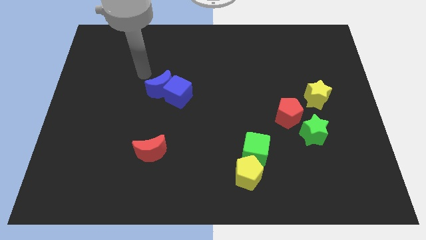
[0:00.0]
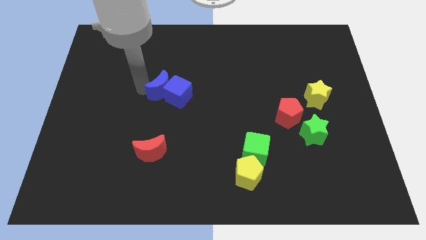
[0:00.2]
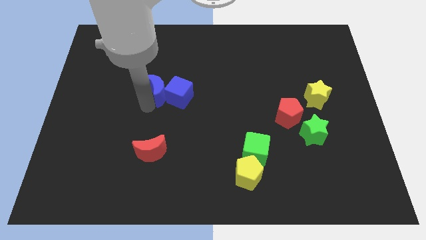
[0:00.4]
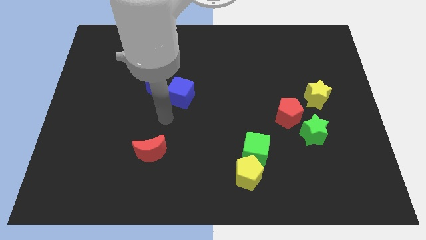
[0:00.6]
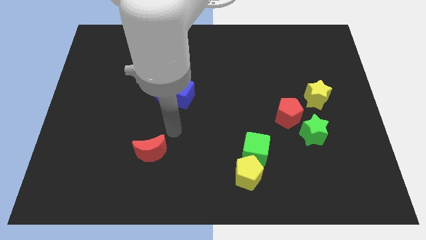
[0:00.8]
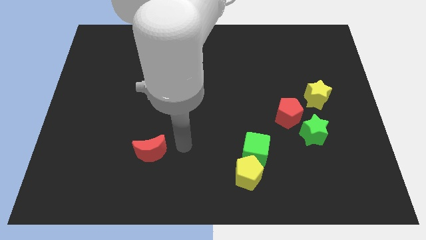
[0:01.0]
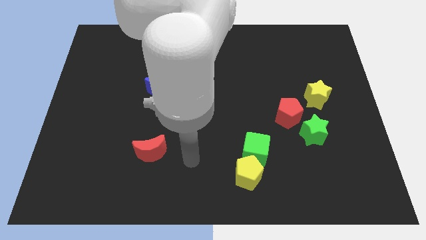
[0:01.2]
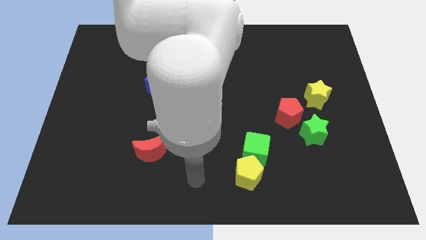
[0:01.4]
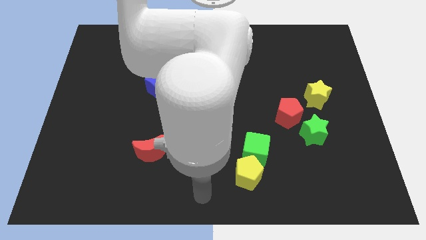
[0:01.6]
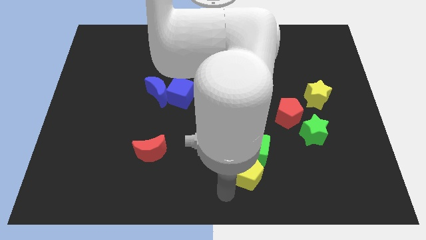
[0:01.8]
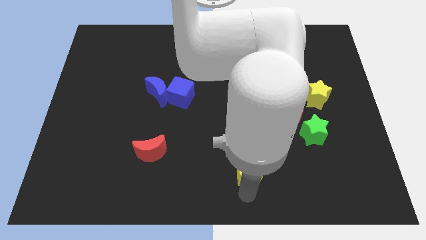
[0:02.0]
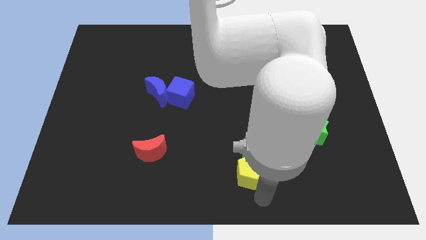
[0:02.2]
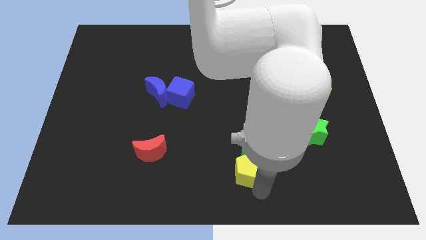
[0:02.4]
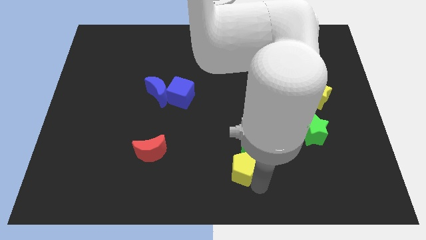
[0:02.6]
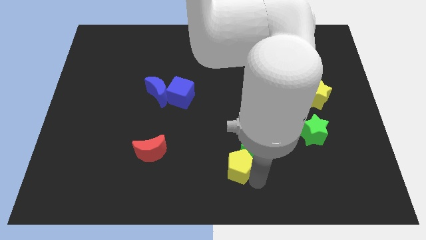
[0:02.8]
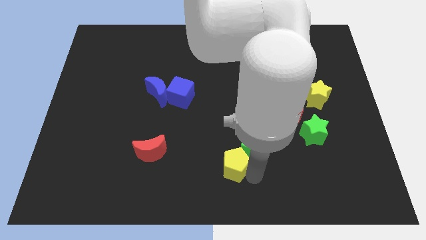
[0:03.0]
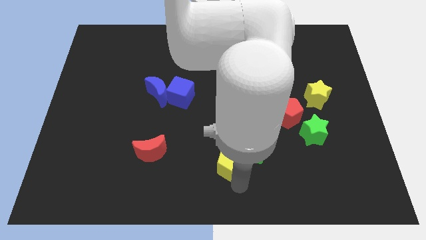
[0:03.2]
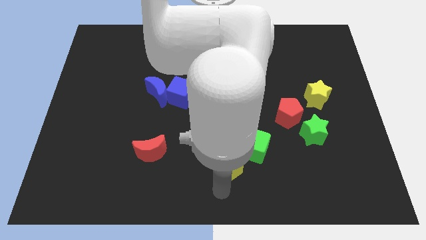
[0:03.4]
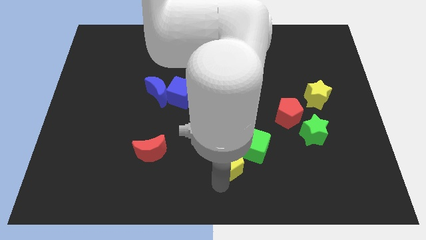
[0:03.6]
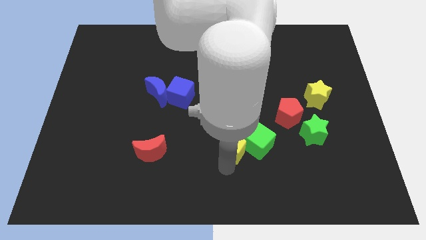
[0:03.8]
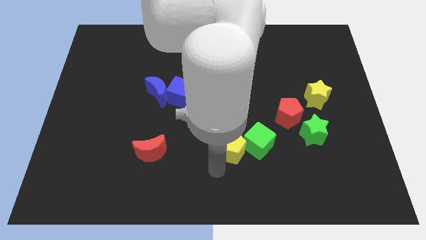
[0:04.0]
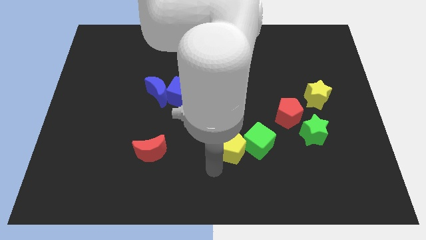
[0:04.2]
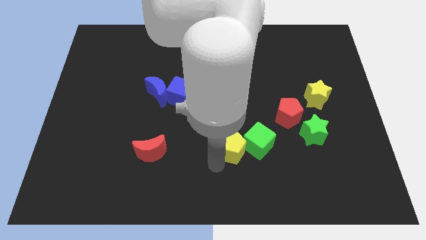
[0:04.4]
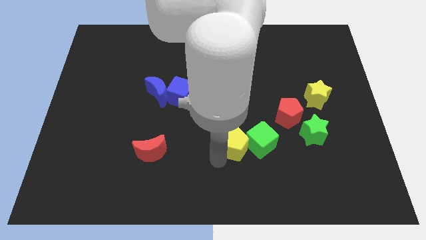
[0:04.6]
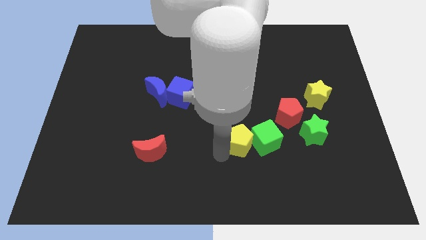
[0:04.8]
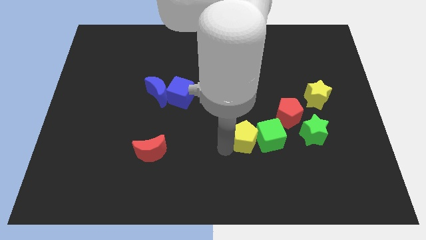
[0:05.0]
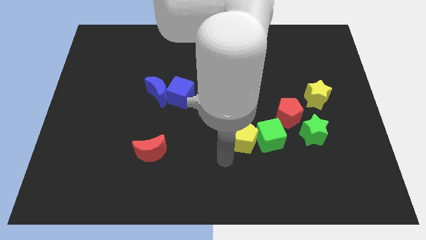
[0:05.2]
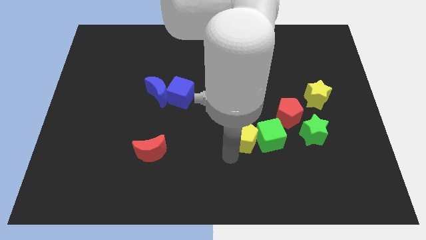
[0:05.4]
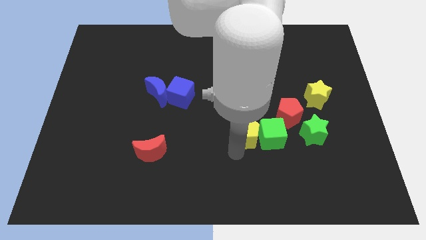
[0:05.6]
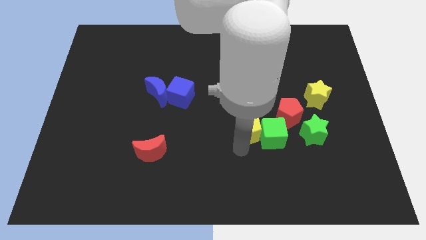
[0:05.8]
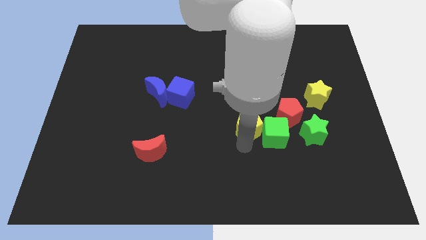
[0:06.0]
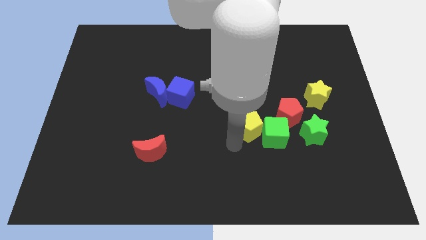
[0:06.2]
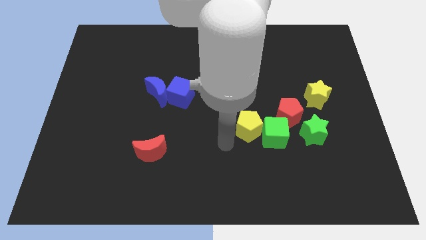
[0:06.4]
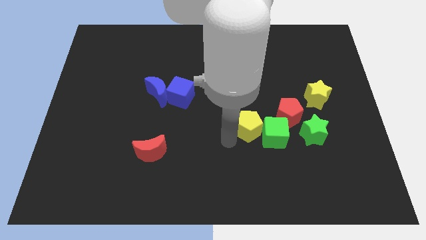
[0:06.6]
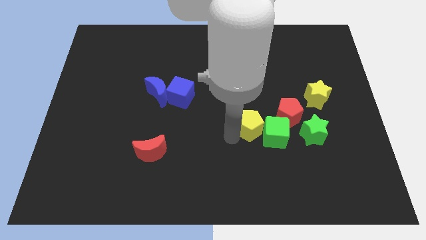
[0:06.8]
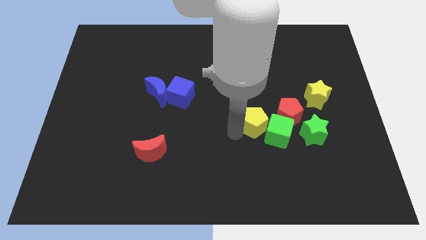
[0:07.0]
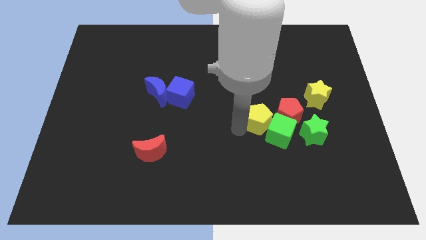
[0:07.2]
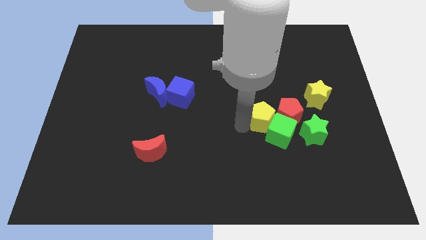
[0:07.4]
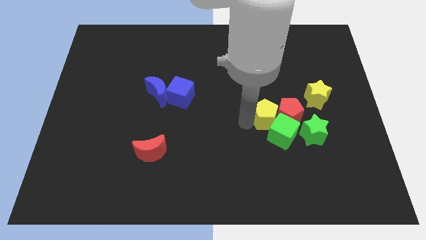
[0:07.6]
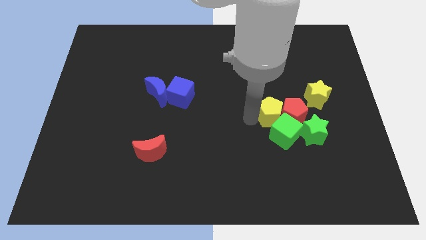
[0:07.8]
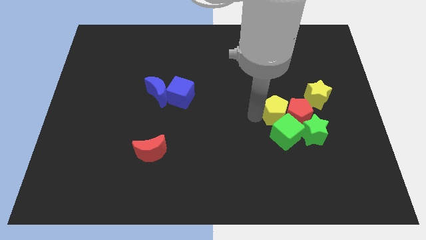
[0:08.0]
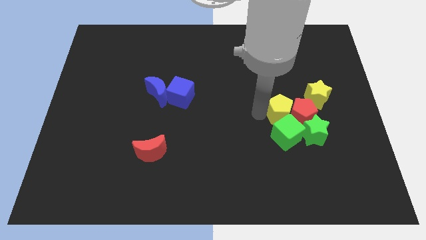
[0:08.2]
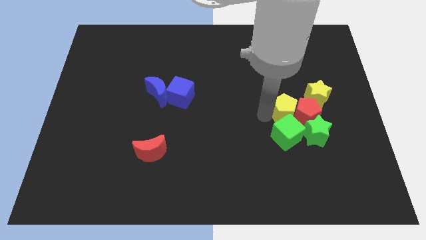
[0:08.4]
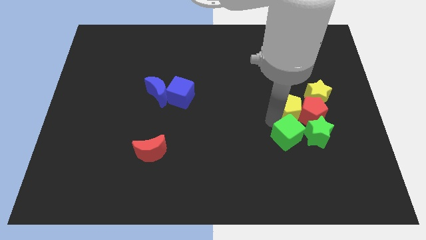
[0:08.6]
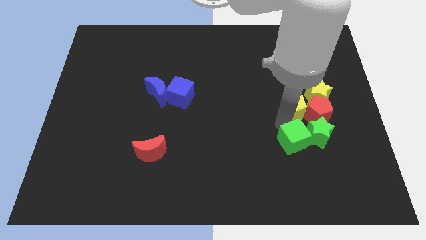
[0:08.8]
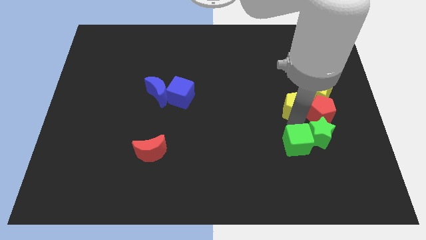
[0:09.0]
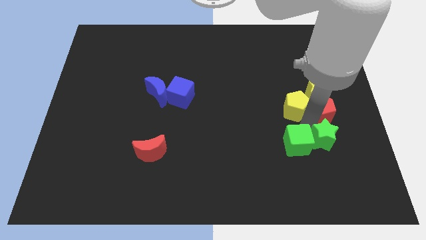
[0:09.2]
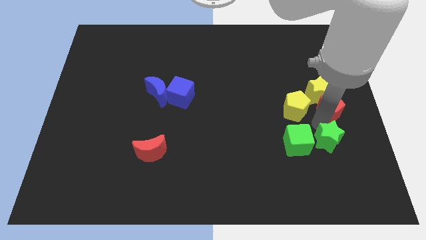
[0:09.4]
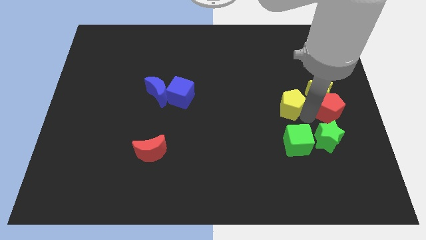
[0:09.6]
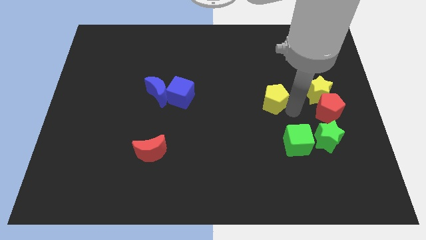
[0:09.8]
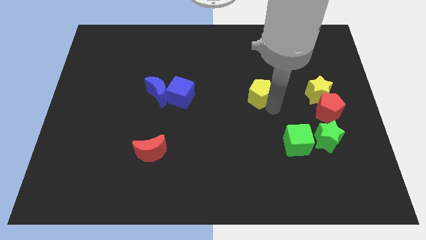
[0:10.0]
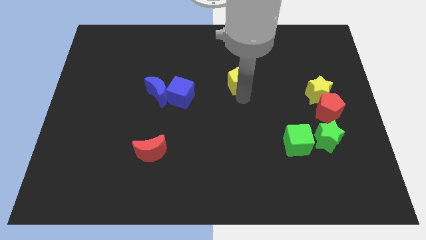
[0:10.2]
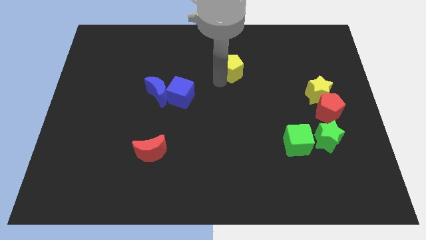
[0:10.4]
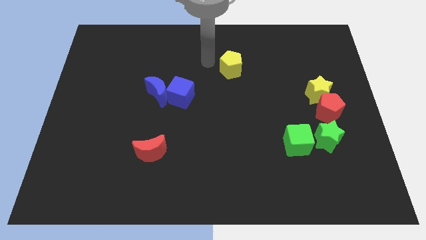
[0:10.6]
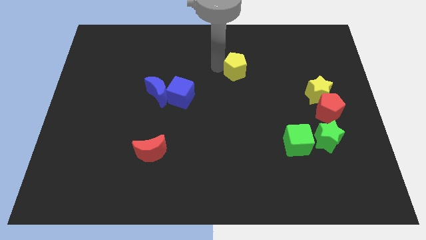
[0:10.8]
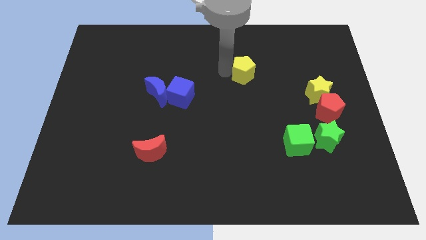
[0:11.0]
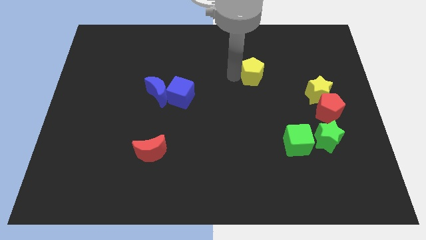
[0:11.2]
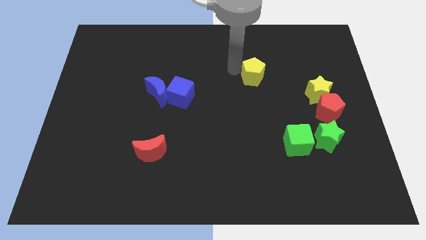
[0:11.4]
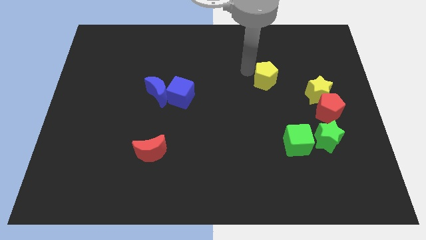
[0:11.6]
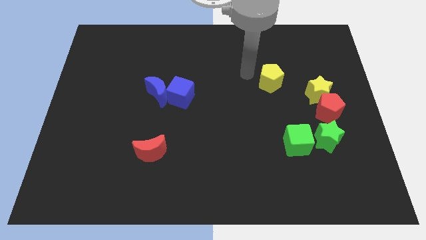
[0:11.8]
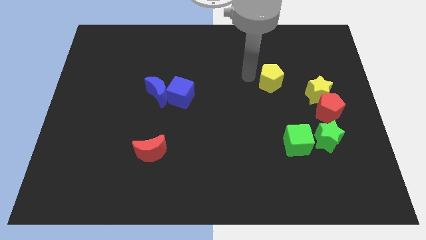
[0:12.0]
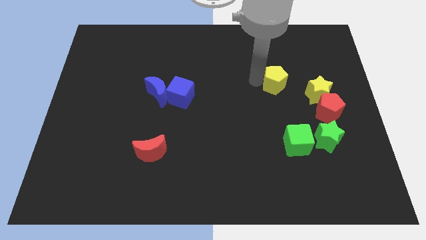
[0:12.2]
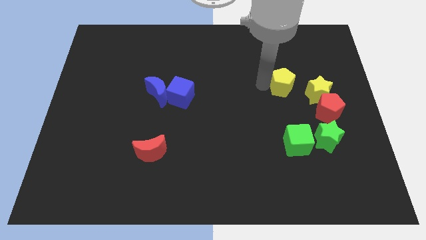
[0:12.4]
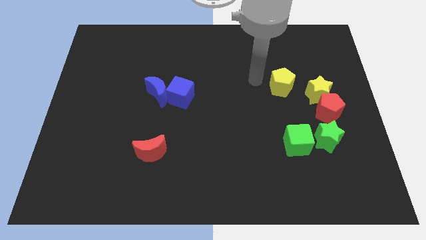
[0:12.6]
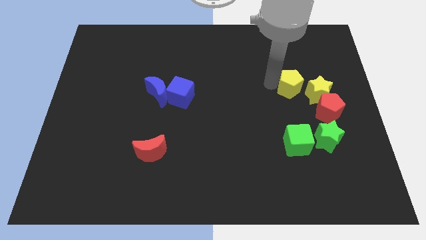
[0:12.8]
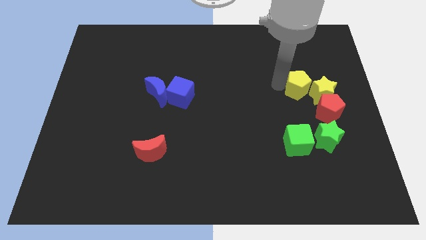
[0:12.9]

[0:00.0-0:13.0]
put the yellow pentagon to the yellow star
